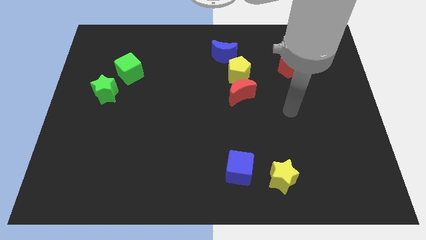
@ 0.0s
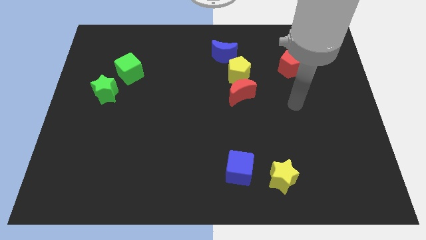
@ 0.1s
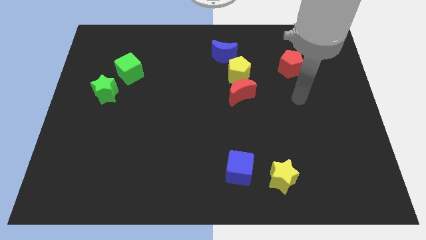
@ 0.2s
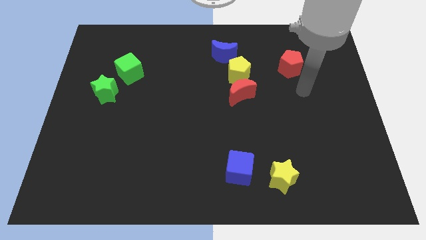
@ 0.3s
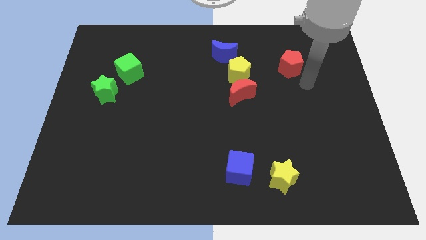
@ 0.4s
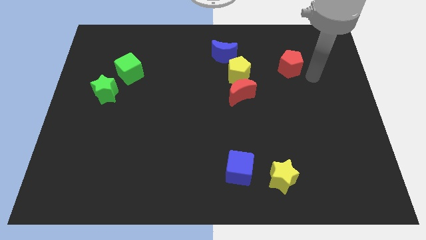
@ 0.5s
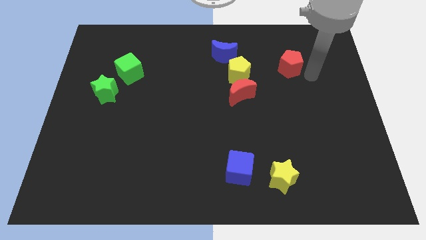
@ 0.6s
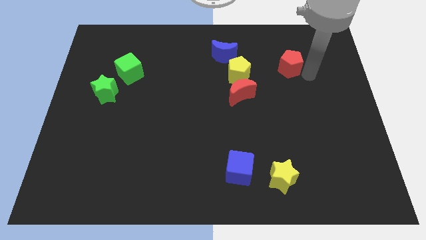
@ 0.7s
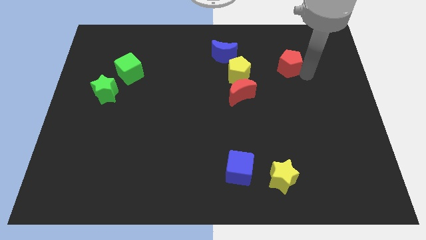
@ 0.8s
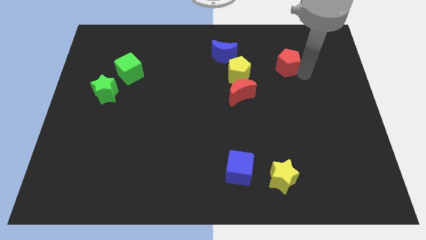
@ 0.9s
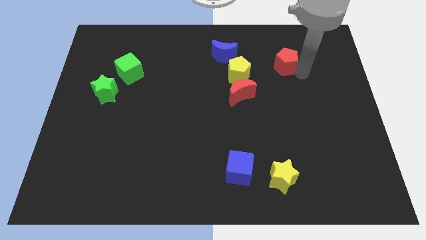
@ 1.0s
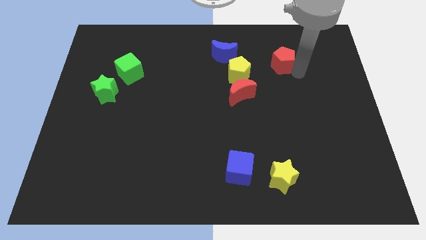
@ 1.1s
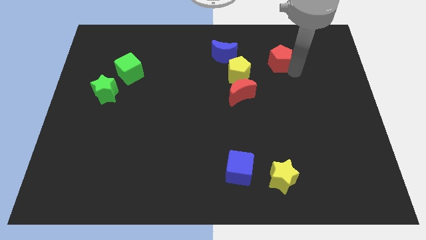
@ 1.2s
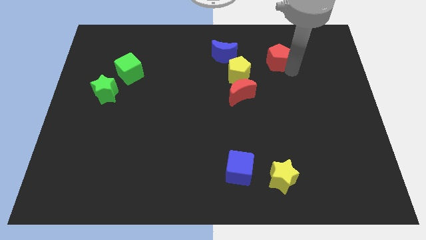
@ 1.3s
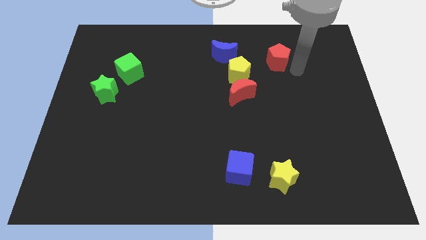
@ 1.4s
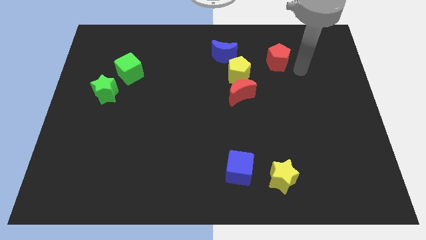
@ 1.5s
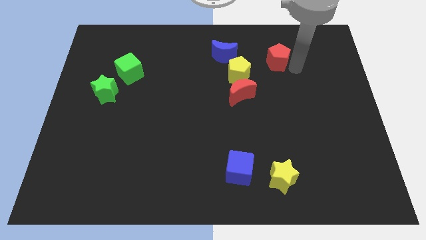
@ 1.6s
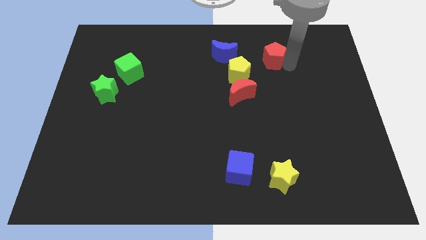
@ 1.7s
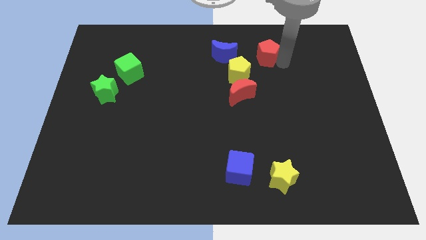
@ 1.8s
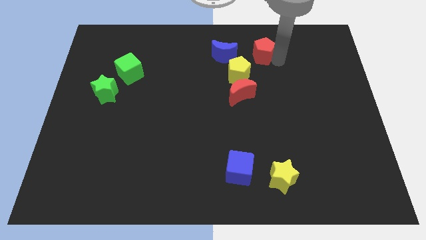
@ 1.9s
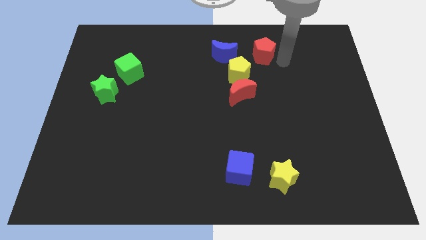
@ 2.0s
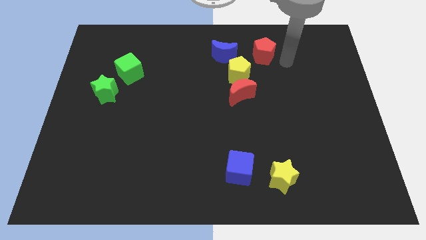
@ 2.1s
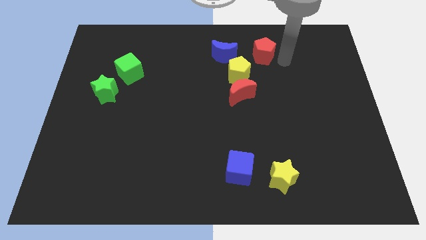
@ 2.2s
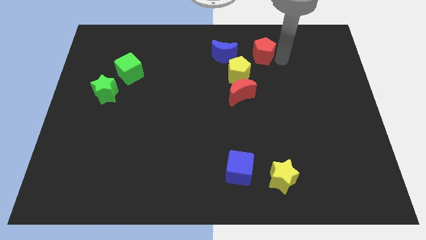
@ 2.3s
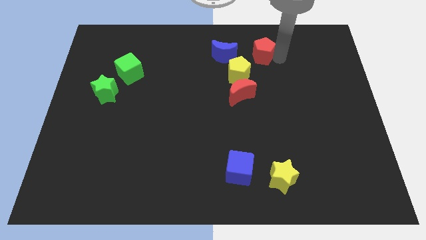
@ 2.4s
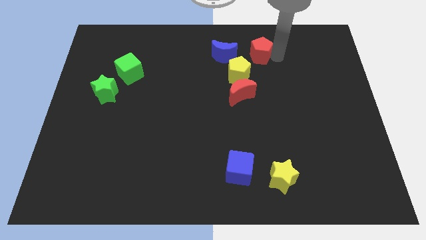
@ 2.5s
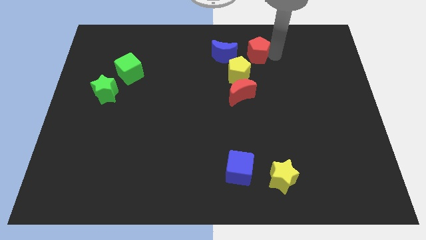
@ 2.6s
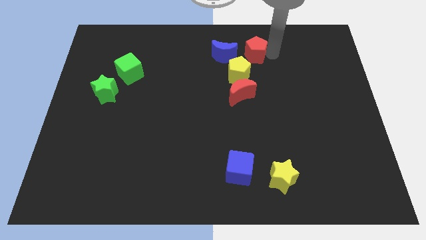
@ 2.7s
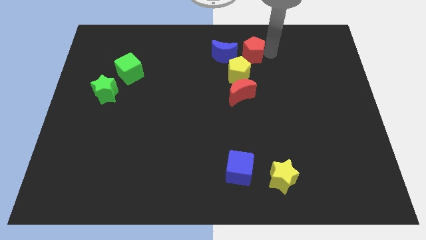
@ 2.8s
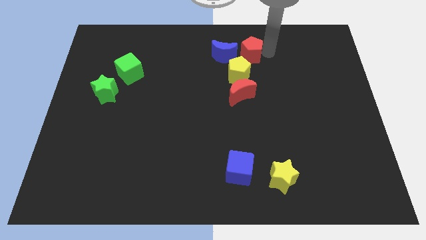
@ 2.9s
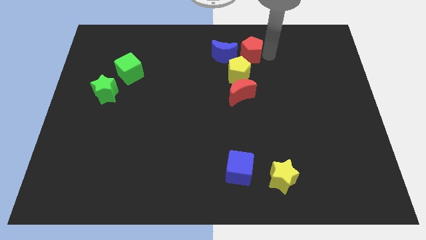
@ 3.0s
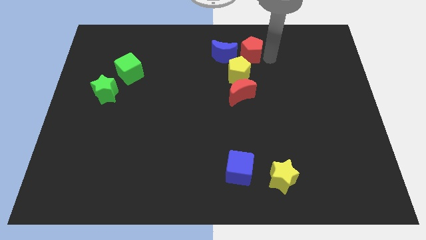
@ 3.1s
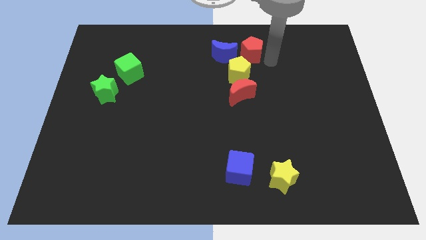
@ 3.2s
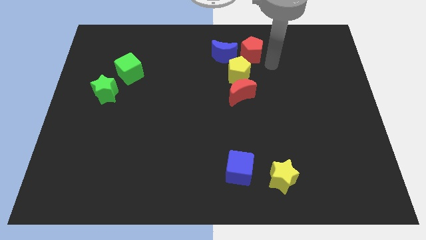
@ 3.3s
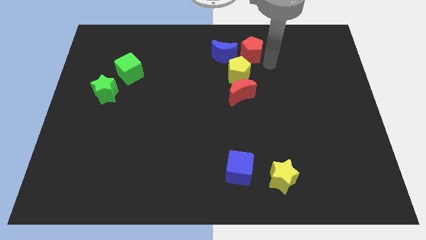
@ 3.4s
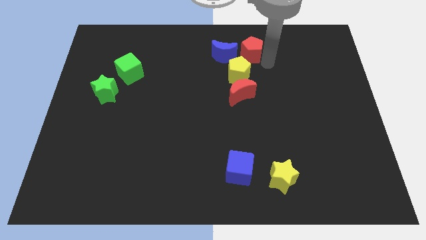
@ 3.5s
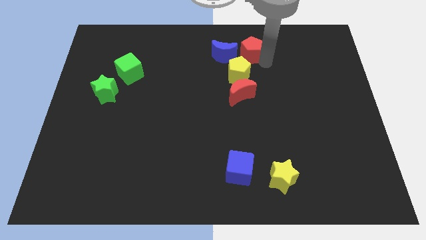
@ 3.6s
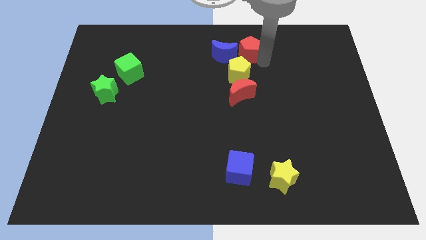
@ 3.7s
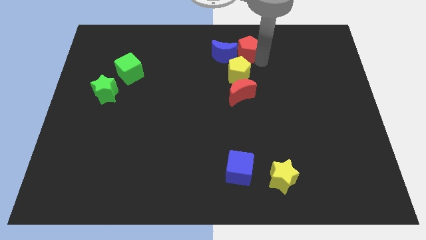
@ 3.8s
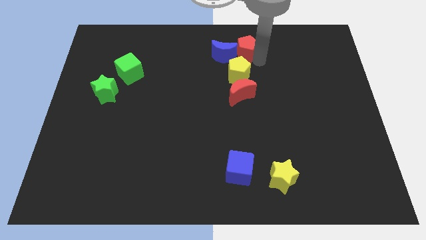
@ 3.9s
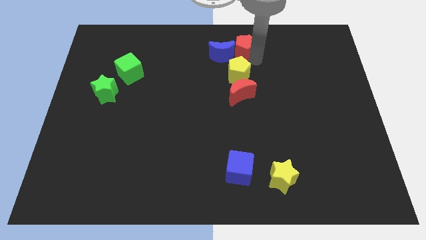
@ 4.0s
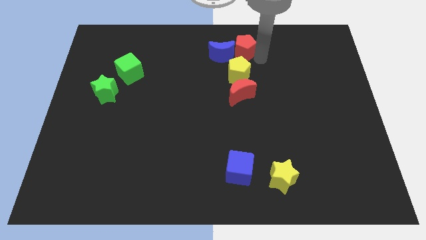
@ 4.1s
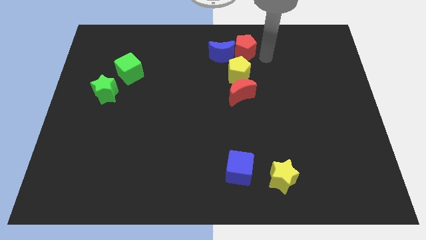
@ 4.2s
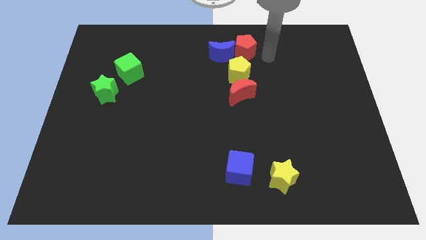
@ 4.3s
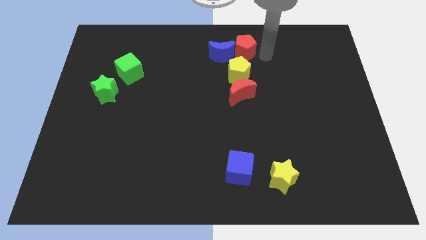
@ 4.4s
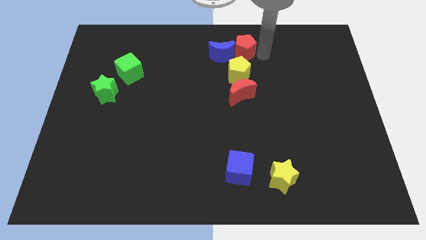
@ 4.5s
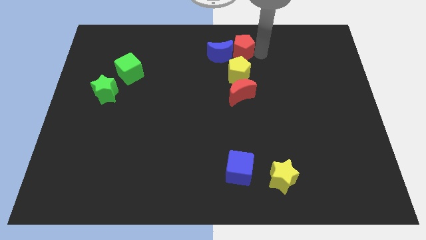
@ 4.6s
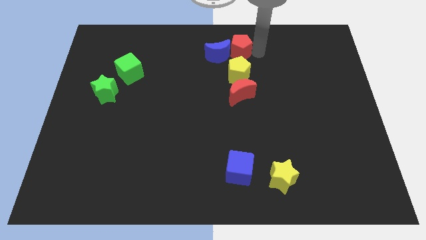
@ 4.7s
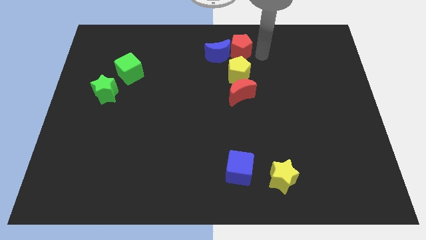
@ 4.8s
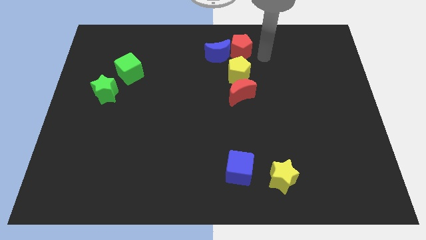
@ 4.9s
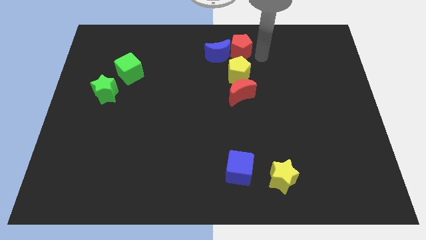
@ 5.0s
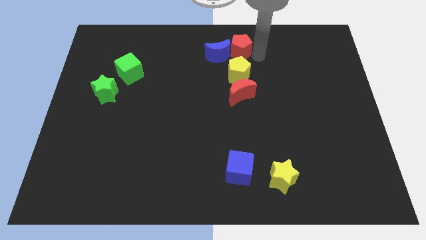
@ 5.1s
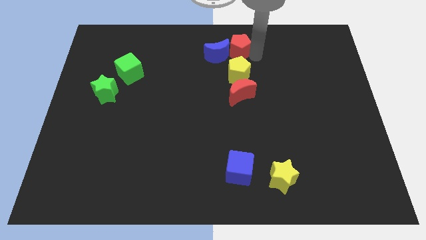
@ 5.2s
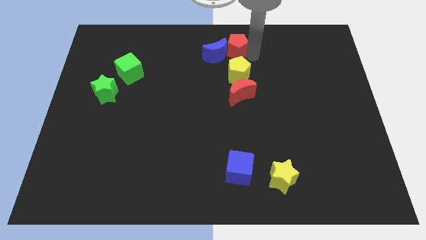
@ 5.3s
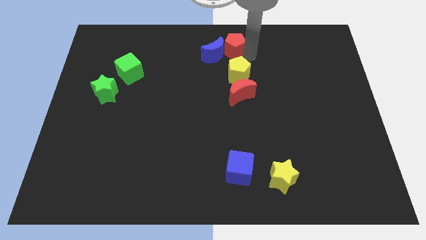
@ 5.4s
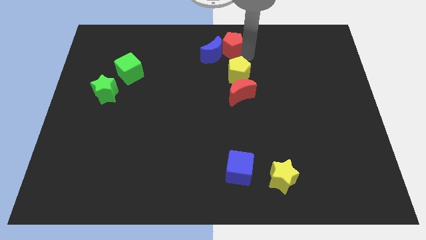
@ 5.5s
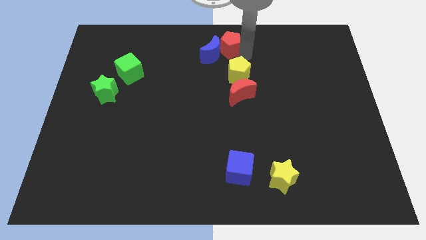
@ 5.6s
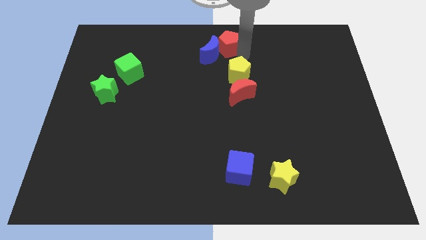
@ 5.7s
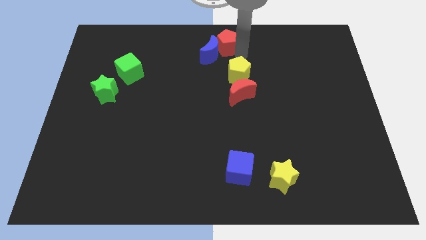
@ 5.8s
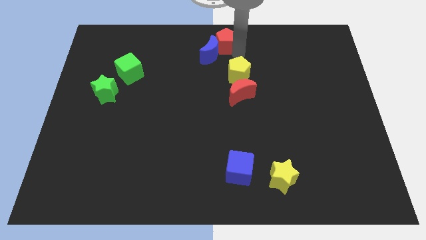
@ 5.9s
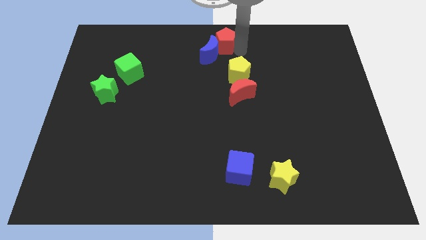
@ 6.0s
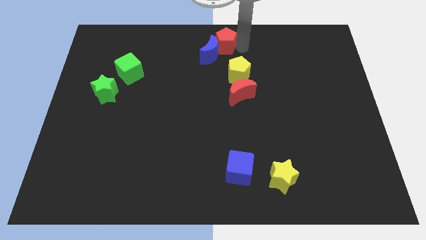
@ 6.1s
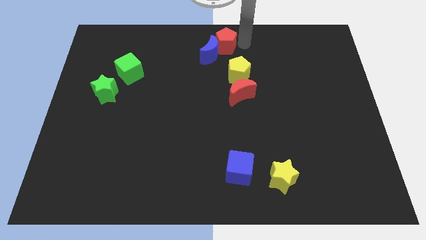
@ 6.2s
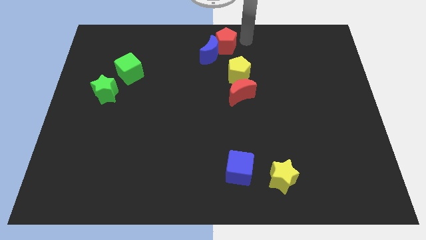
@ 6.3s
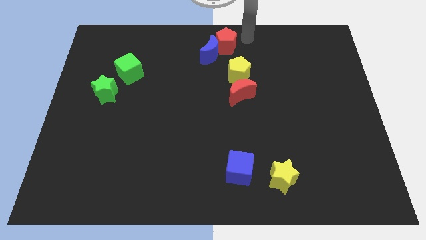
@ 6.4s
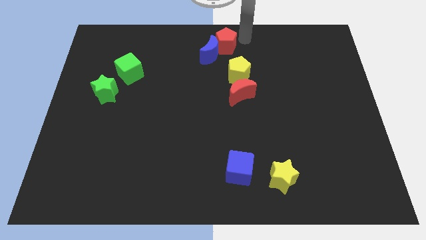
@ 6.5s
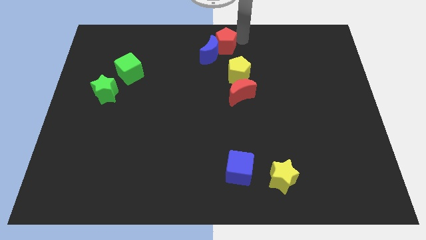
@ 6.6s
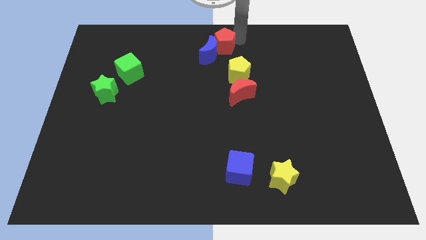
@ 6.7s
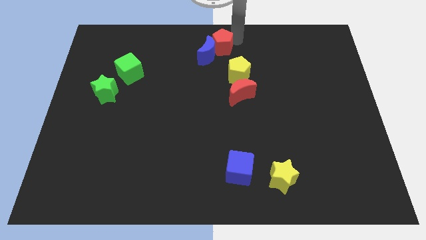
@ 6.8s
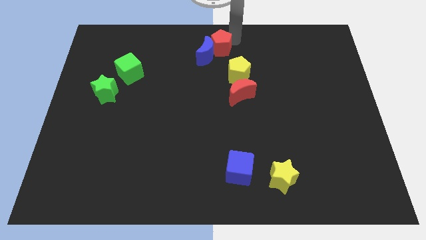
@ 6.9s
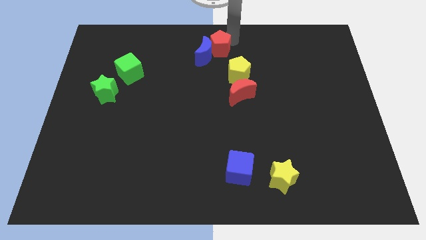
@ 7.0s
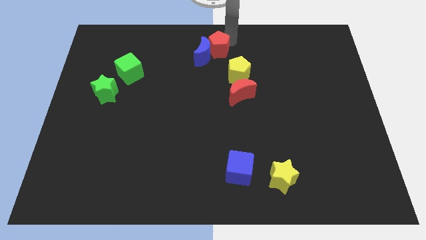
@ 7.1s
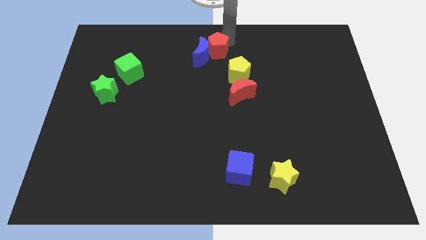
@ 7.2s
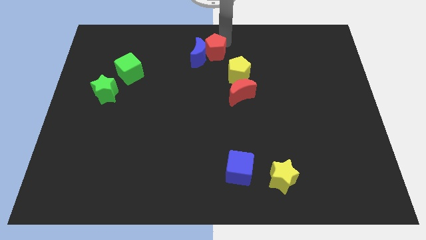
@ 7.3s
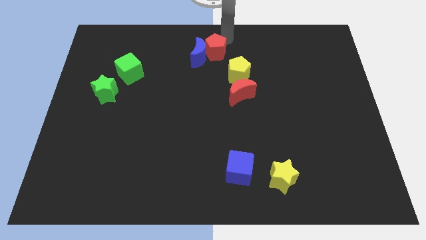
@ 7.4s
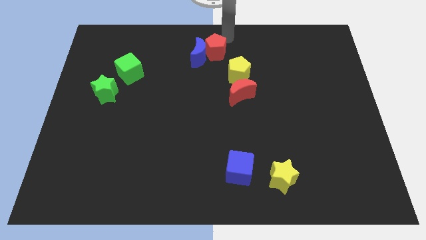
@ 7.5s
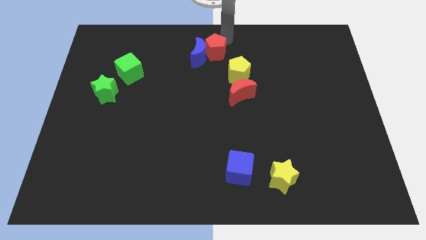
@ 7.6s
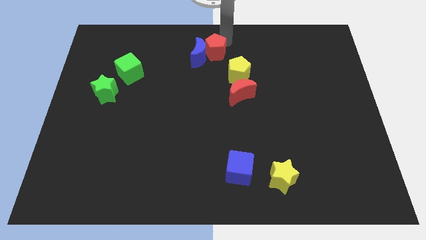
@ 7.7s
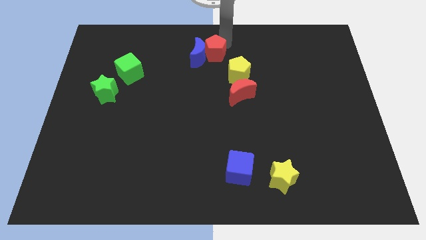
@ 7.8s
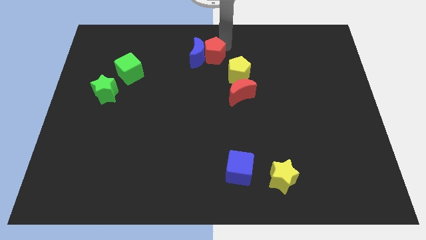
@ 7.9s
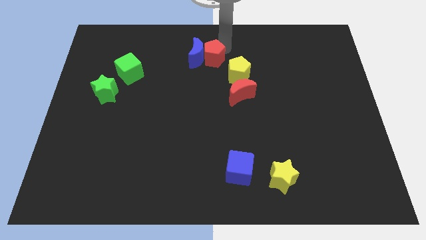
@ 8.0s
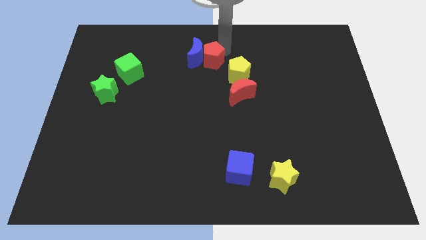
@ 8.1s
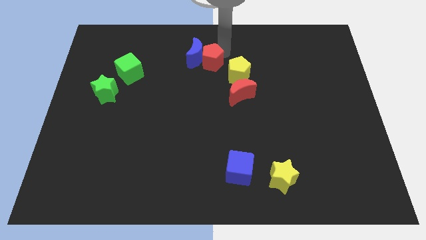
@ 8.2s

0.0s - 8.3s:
move the red pentagon to the left of the yellow pentagon
